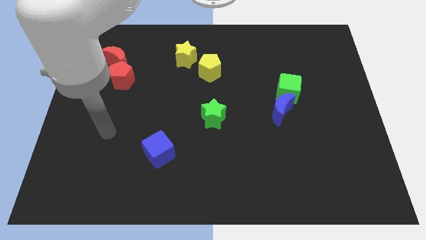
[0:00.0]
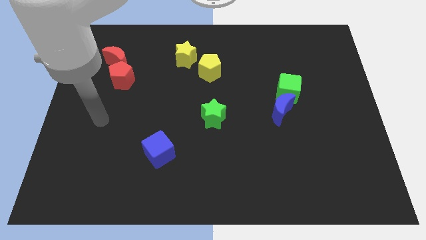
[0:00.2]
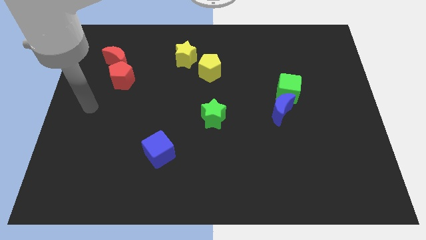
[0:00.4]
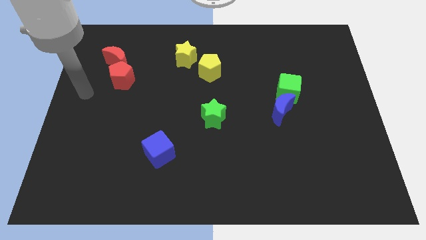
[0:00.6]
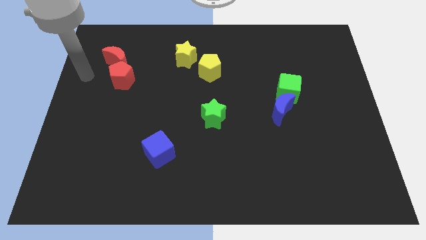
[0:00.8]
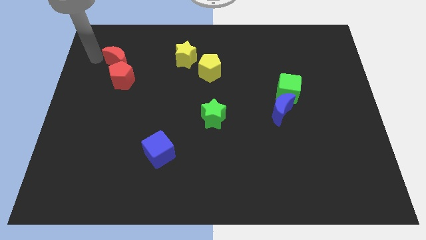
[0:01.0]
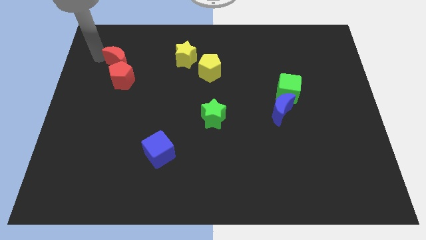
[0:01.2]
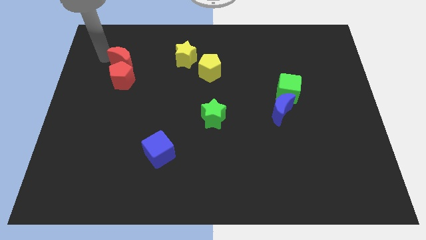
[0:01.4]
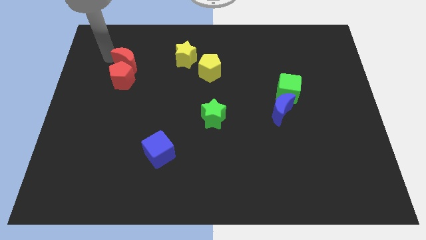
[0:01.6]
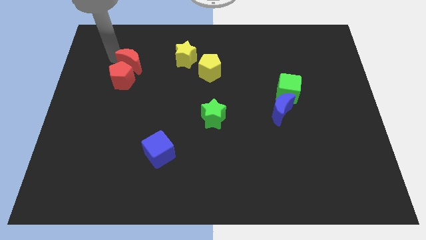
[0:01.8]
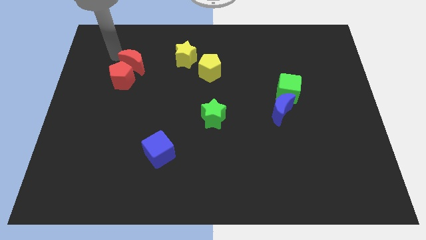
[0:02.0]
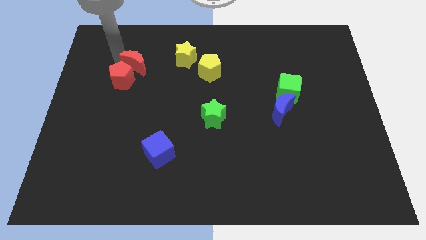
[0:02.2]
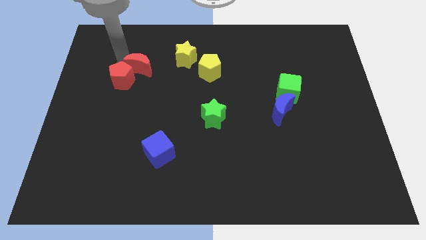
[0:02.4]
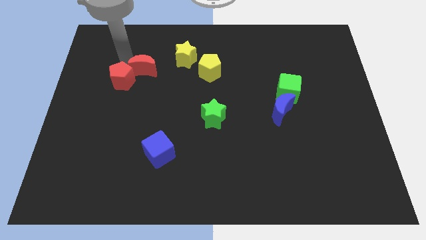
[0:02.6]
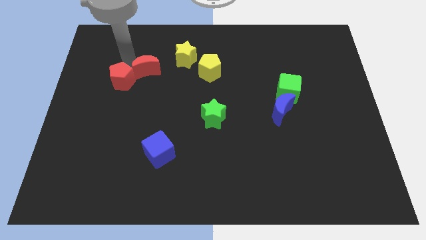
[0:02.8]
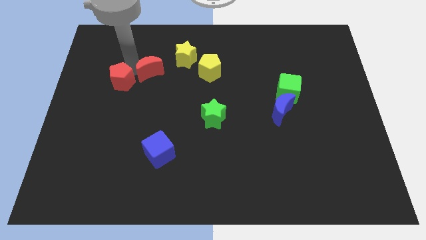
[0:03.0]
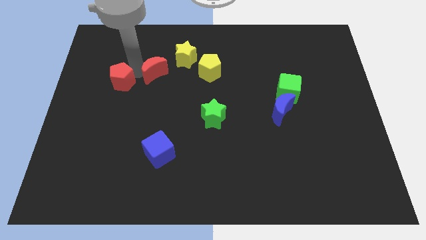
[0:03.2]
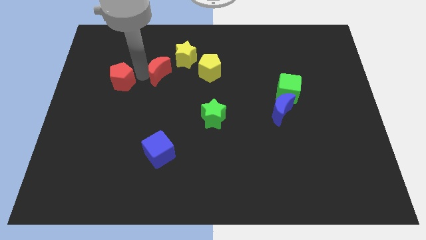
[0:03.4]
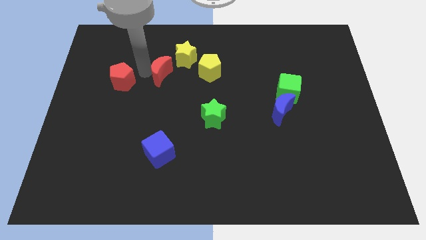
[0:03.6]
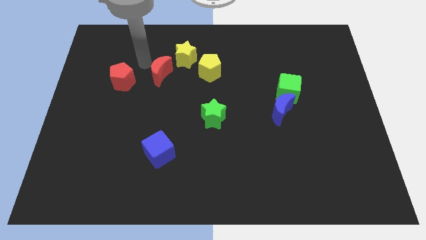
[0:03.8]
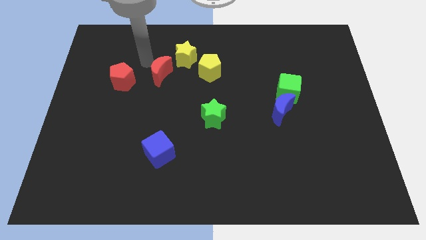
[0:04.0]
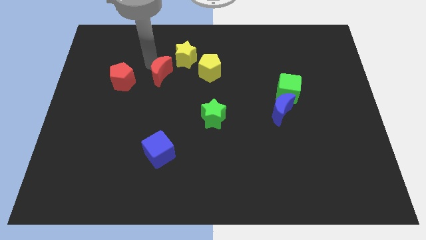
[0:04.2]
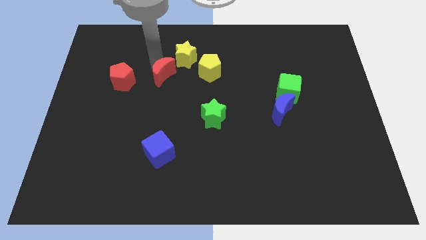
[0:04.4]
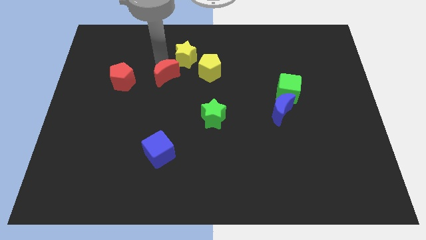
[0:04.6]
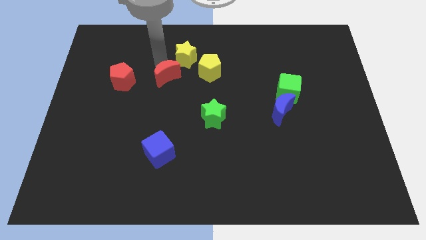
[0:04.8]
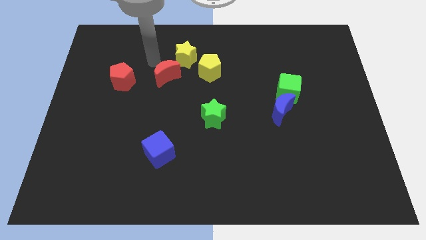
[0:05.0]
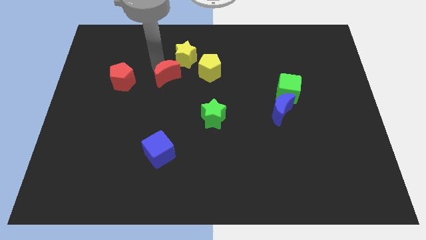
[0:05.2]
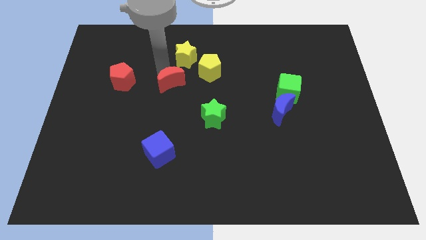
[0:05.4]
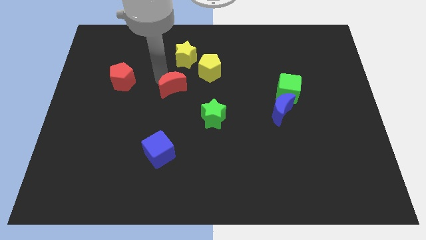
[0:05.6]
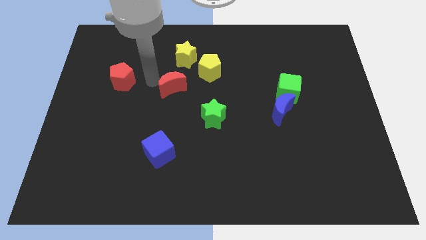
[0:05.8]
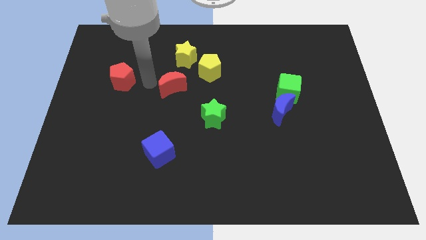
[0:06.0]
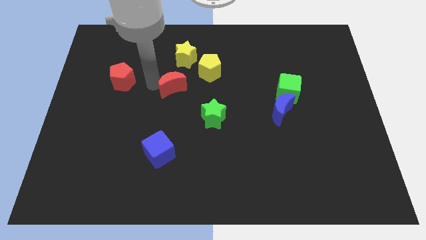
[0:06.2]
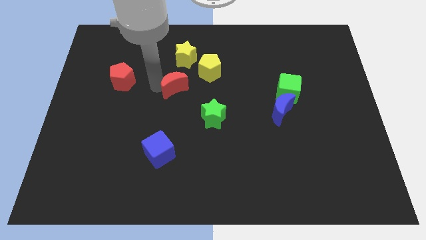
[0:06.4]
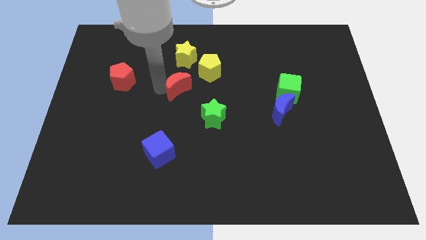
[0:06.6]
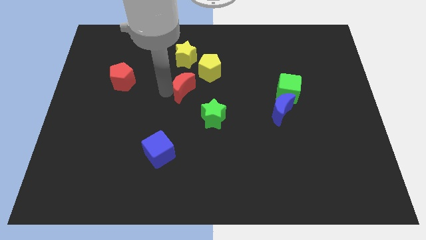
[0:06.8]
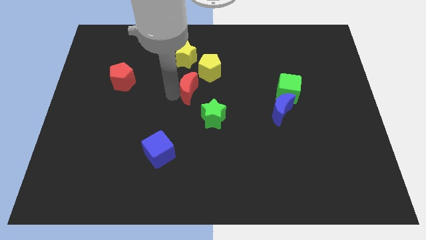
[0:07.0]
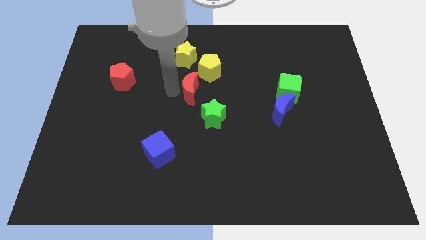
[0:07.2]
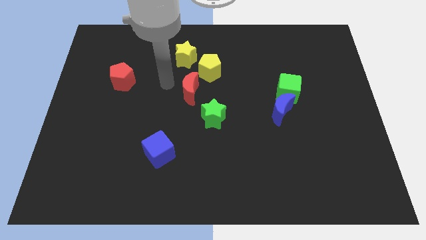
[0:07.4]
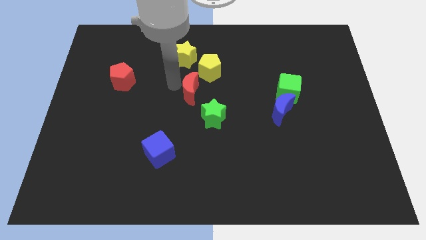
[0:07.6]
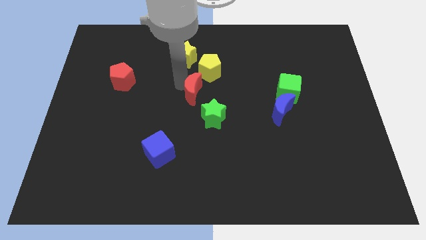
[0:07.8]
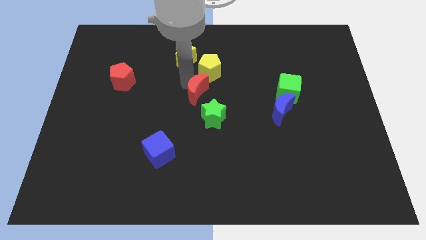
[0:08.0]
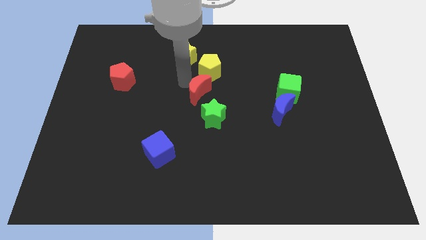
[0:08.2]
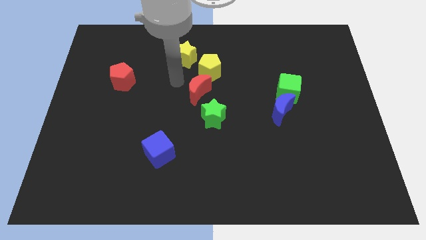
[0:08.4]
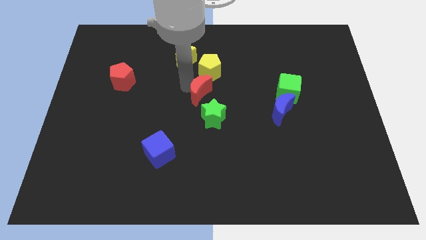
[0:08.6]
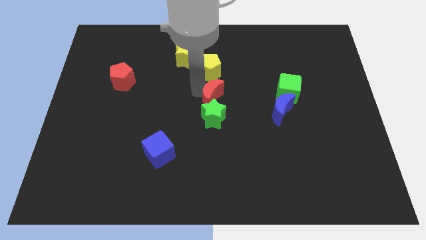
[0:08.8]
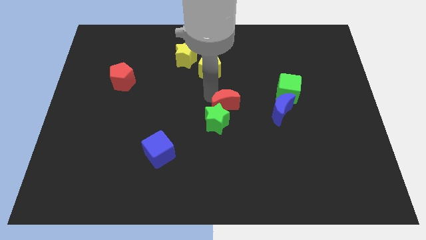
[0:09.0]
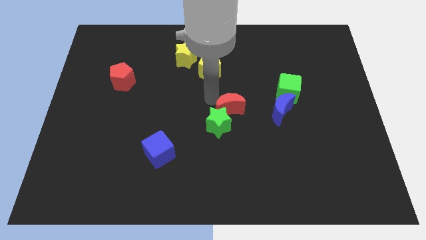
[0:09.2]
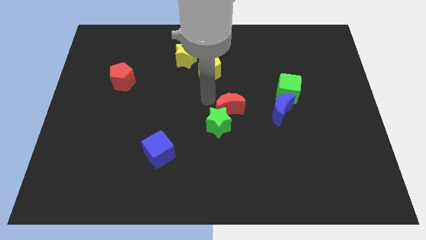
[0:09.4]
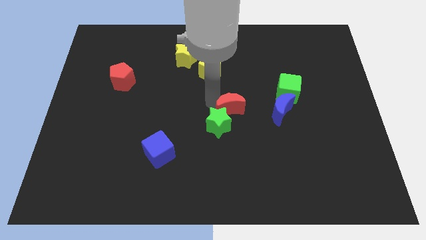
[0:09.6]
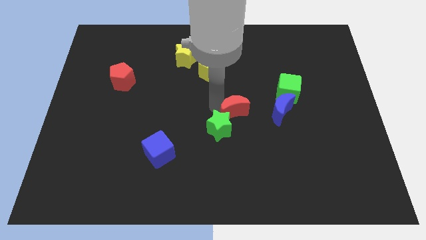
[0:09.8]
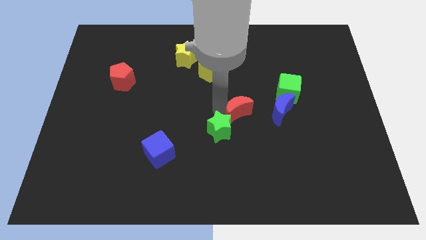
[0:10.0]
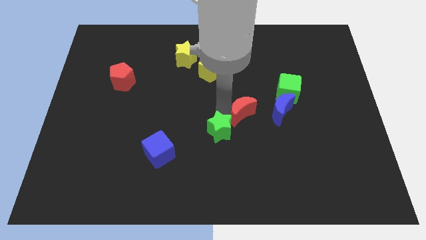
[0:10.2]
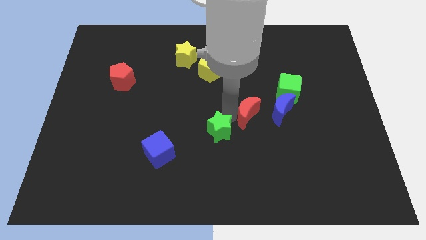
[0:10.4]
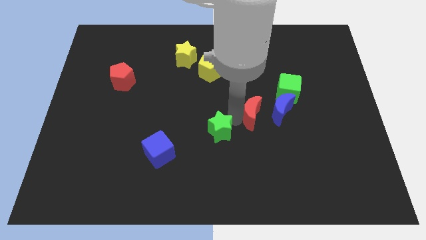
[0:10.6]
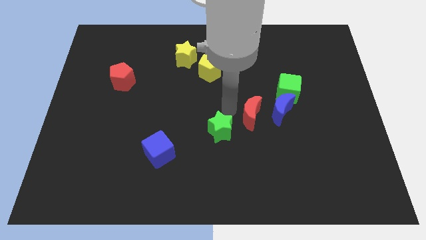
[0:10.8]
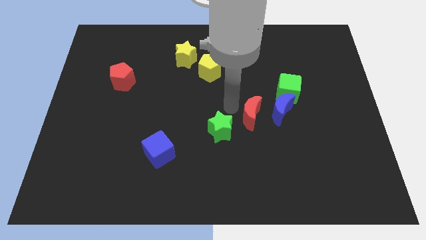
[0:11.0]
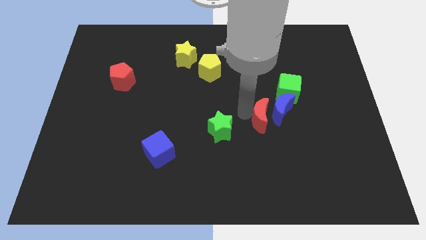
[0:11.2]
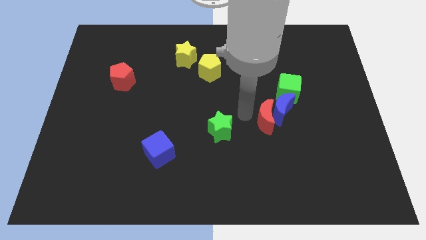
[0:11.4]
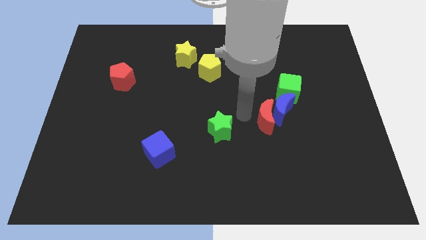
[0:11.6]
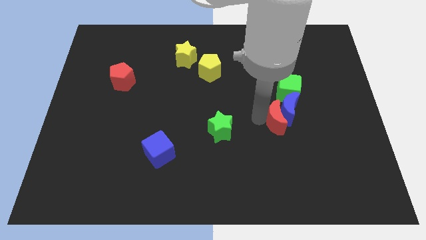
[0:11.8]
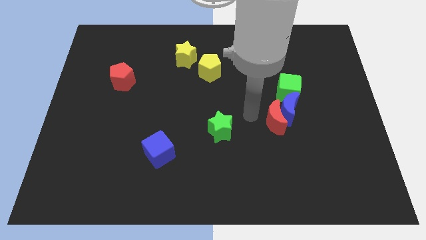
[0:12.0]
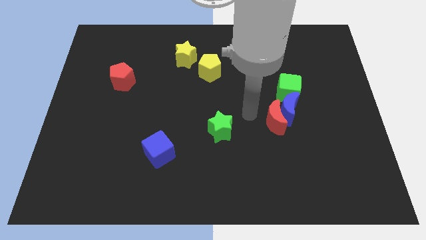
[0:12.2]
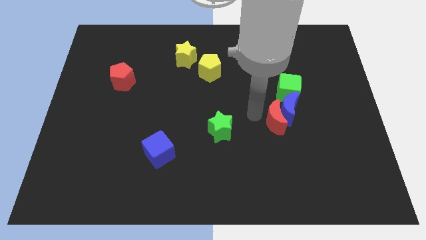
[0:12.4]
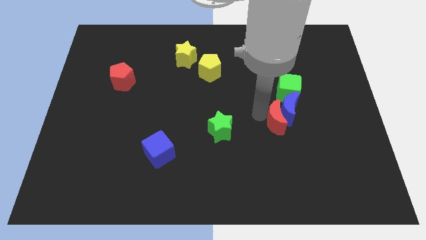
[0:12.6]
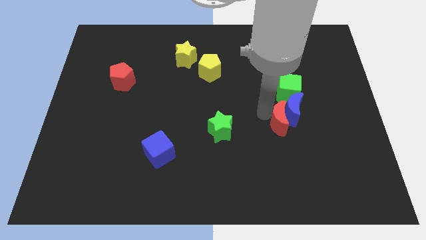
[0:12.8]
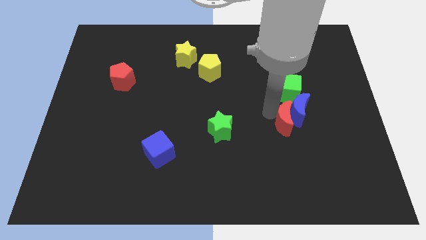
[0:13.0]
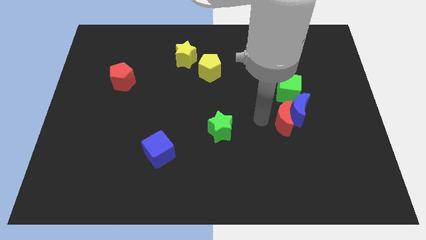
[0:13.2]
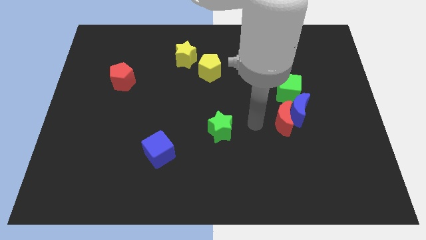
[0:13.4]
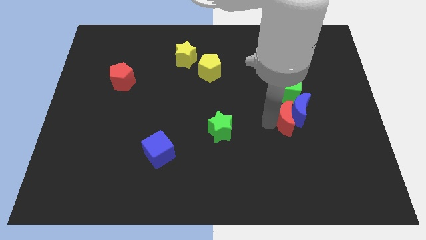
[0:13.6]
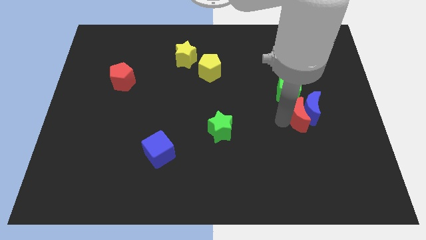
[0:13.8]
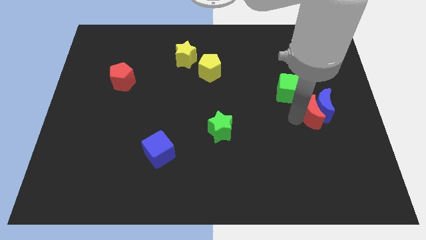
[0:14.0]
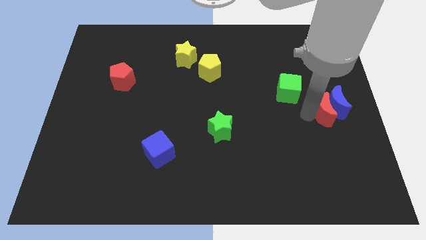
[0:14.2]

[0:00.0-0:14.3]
push the red moon to the center right
